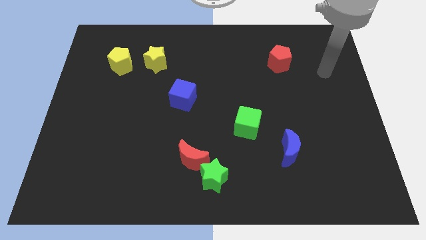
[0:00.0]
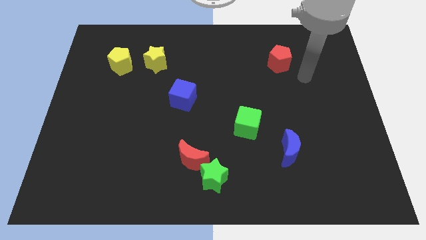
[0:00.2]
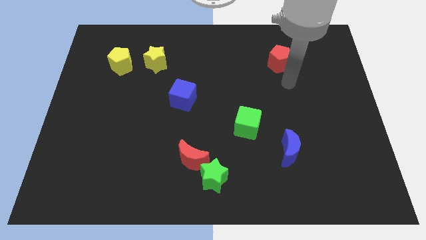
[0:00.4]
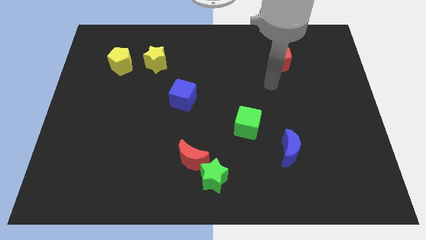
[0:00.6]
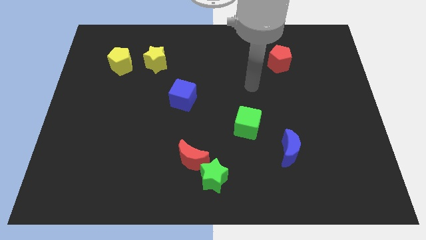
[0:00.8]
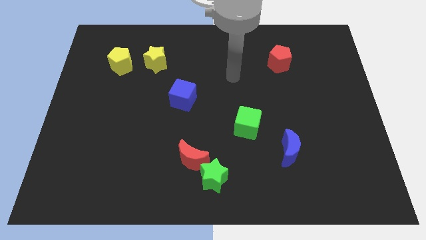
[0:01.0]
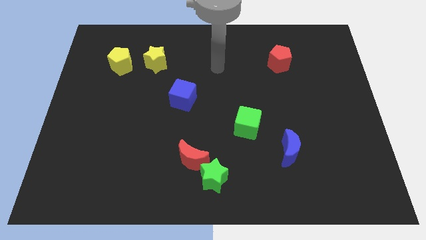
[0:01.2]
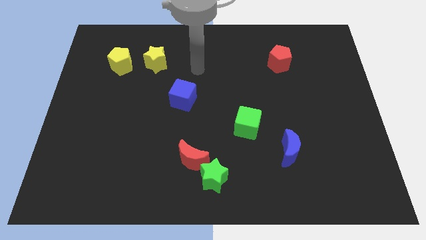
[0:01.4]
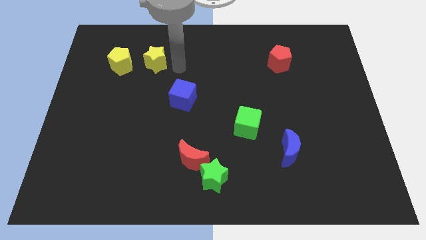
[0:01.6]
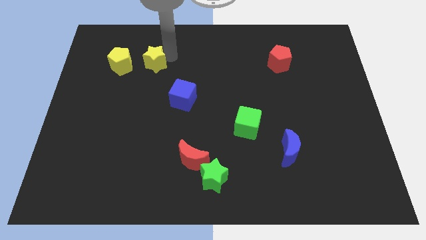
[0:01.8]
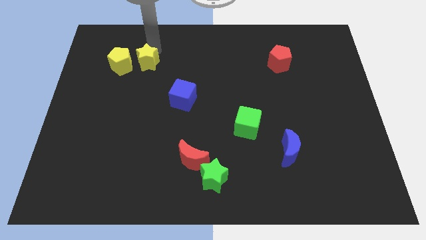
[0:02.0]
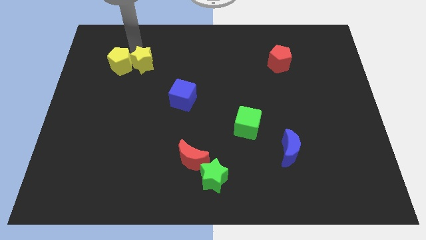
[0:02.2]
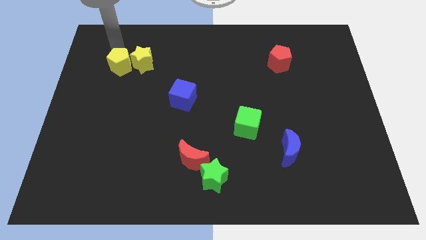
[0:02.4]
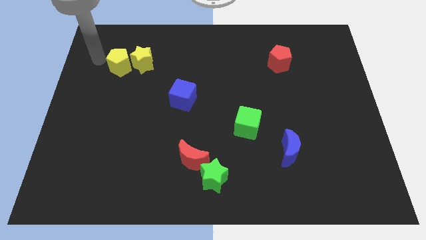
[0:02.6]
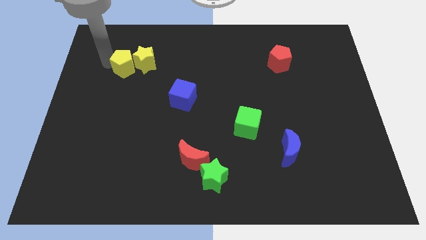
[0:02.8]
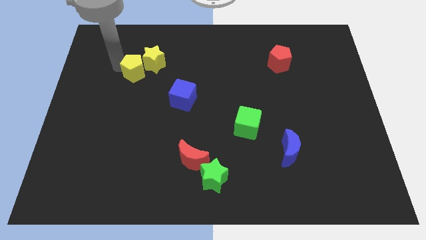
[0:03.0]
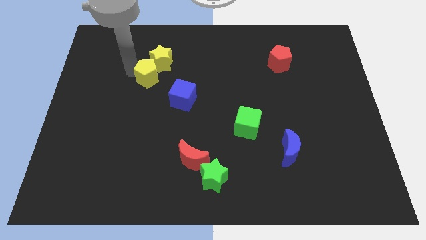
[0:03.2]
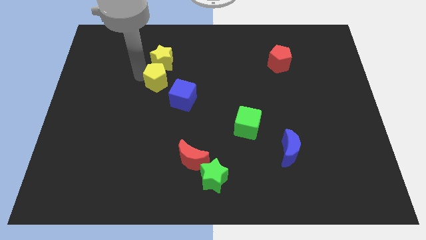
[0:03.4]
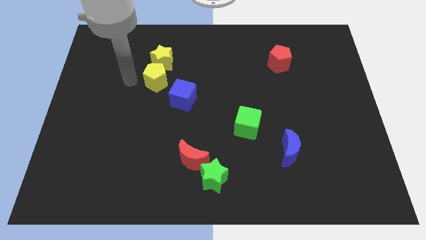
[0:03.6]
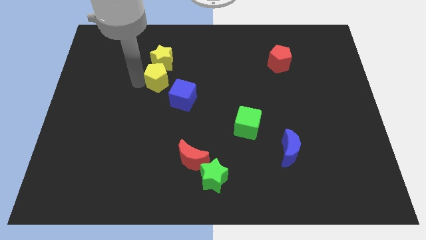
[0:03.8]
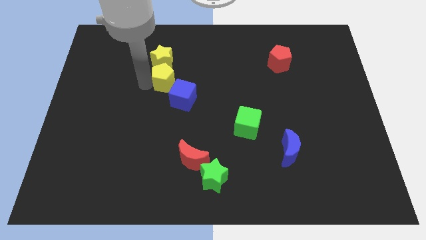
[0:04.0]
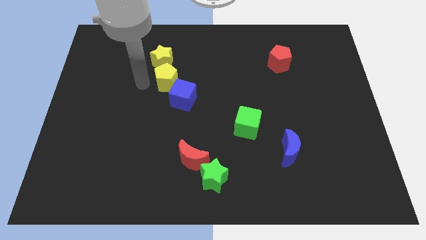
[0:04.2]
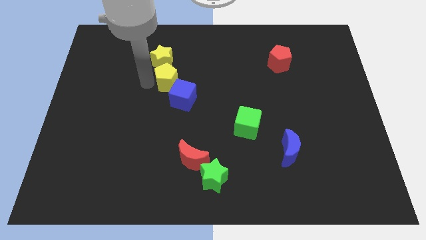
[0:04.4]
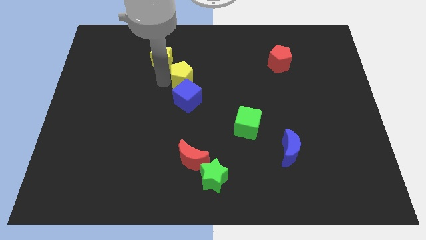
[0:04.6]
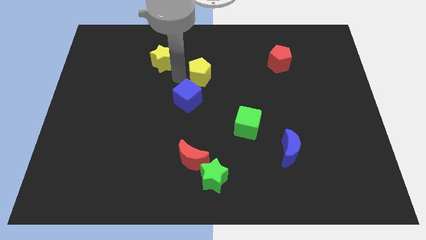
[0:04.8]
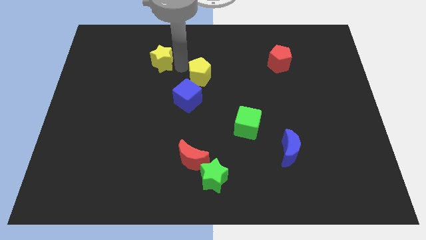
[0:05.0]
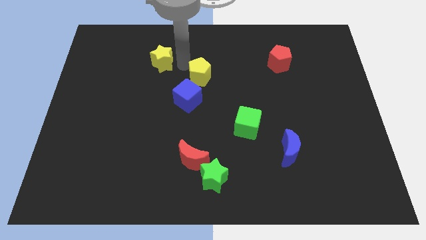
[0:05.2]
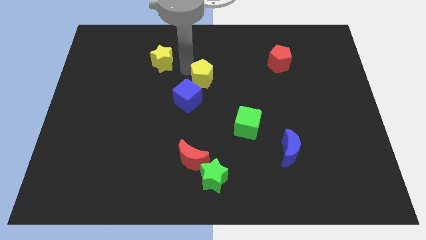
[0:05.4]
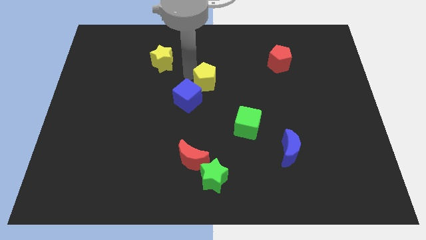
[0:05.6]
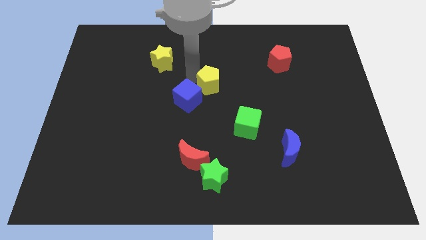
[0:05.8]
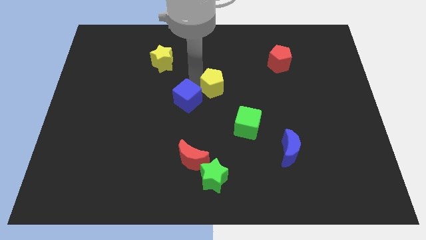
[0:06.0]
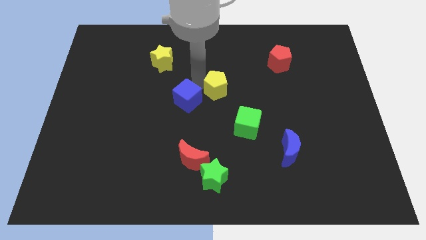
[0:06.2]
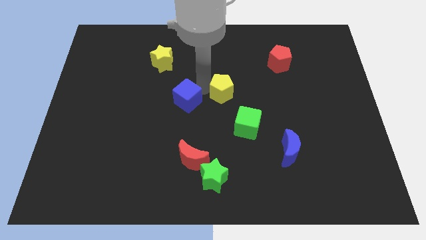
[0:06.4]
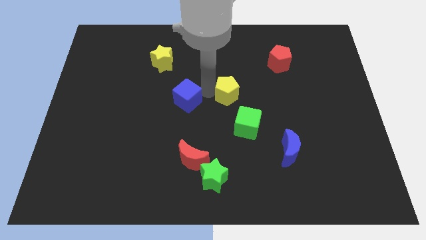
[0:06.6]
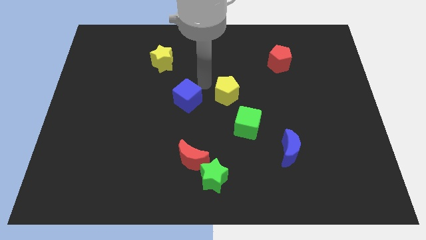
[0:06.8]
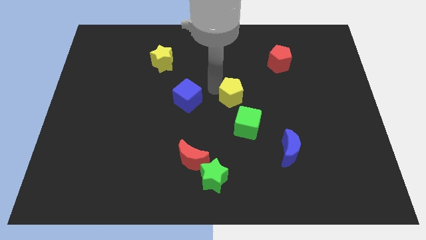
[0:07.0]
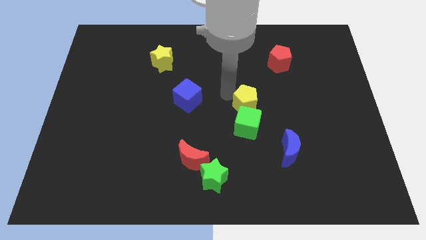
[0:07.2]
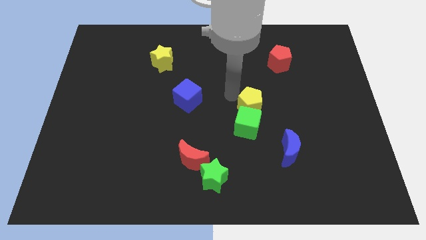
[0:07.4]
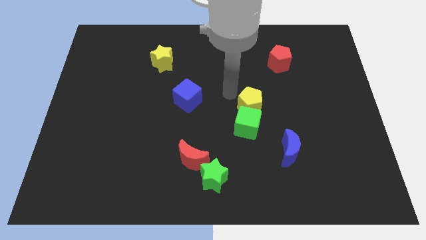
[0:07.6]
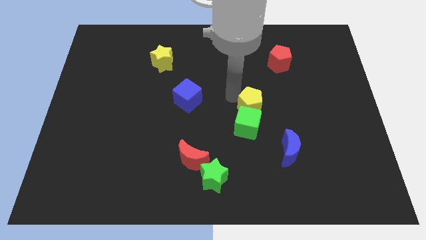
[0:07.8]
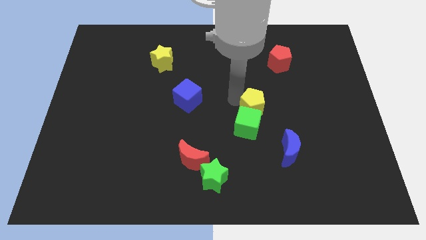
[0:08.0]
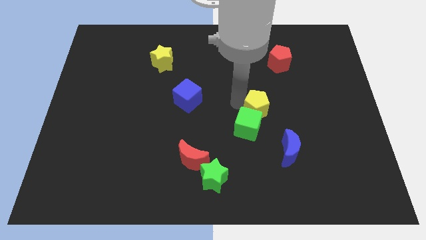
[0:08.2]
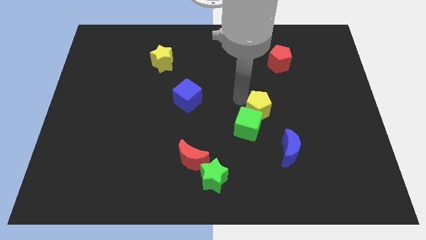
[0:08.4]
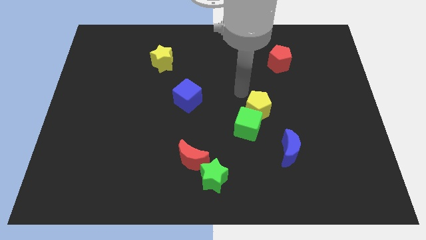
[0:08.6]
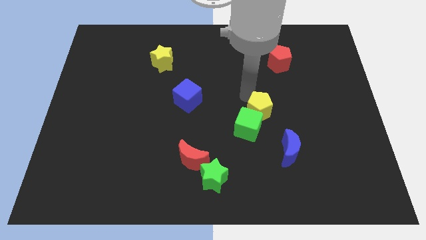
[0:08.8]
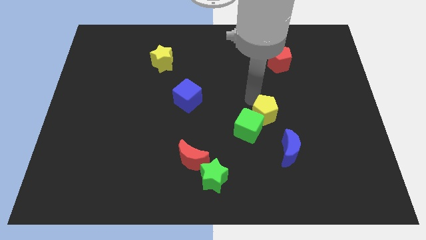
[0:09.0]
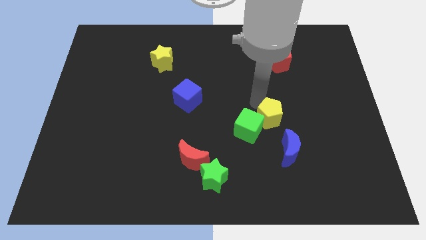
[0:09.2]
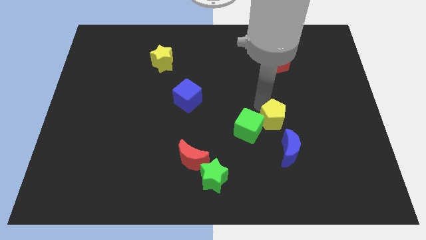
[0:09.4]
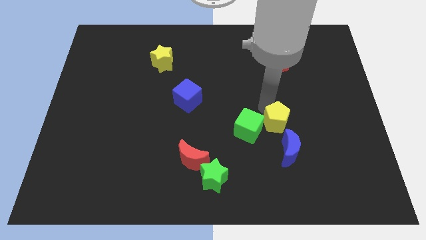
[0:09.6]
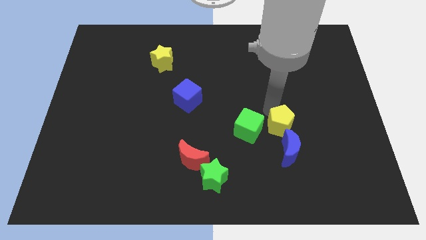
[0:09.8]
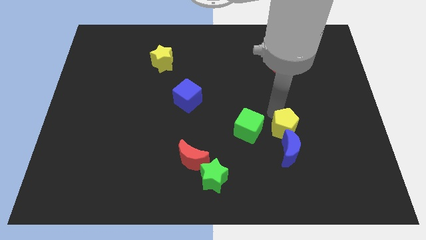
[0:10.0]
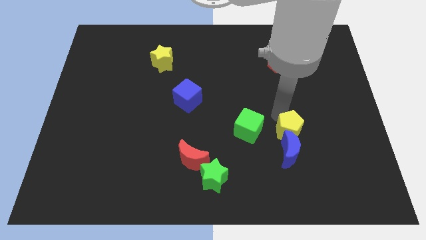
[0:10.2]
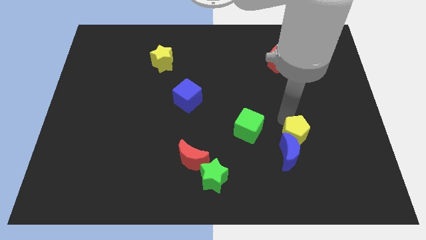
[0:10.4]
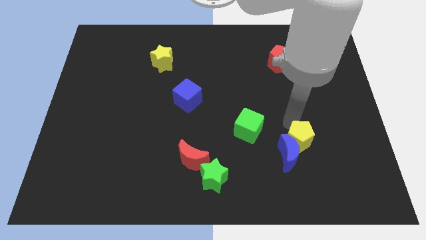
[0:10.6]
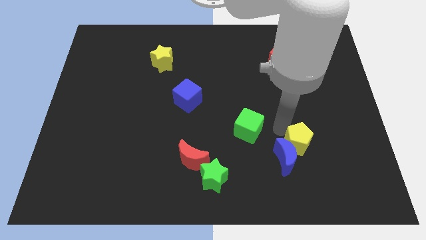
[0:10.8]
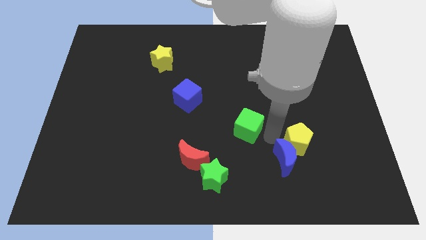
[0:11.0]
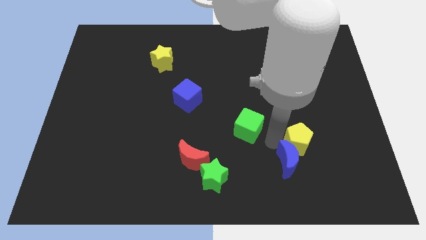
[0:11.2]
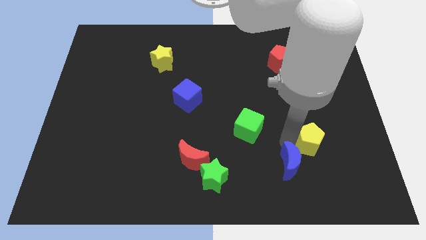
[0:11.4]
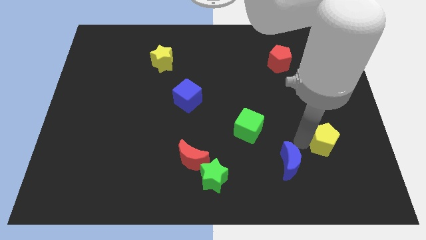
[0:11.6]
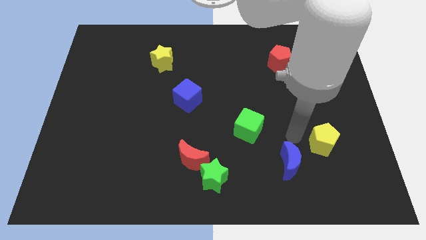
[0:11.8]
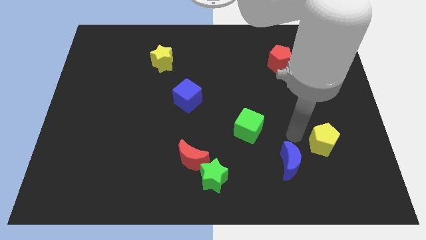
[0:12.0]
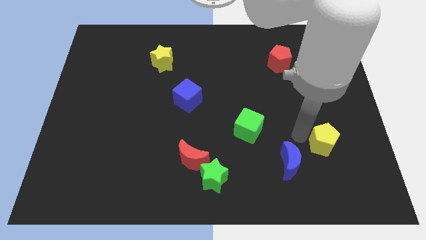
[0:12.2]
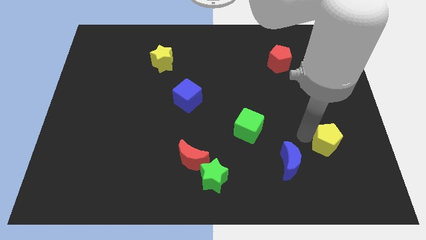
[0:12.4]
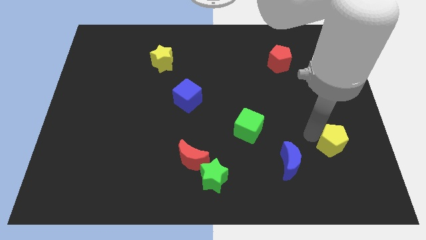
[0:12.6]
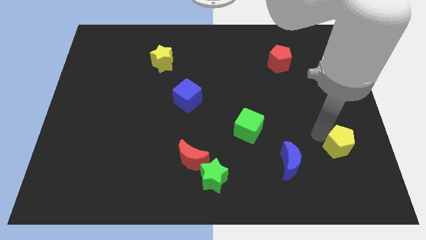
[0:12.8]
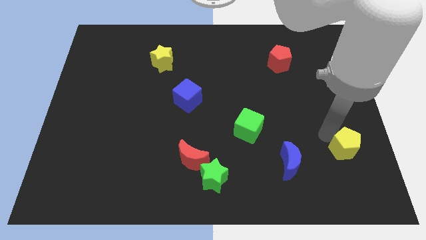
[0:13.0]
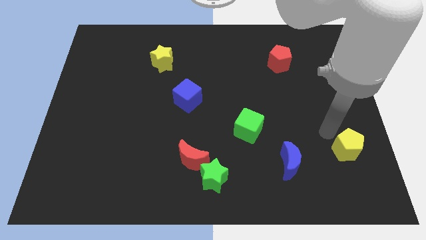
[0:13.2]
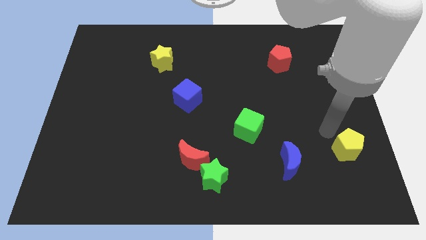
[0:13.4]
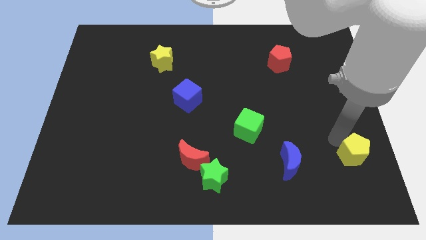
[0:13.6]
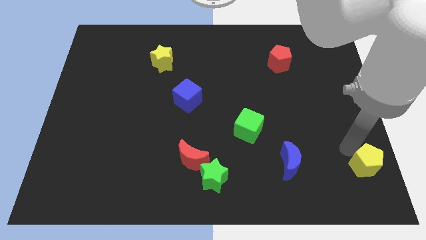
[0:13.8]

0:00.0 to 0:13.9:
push the yellow pentagon to the bottom right of the board
